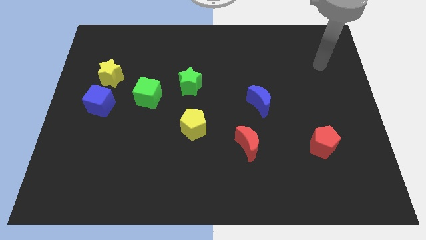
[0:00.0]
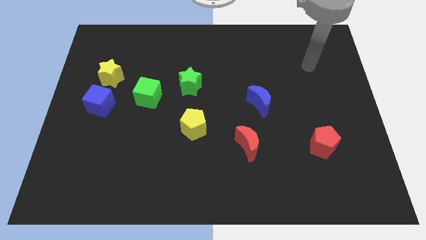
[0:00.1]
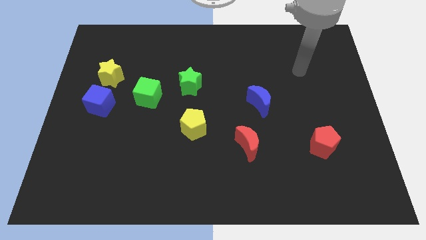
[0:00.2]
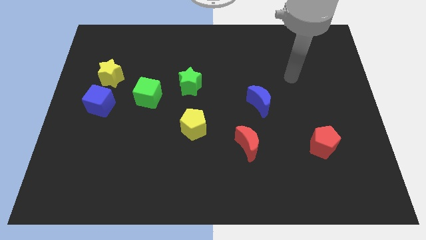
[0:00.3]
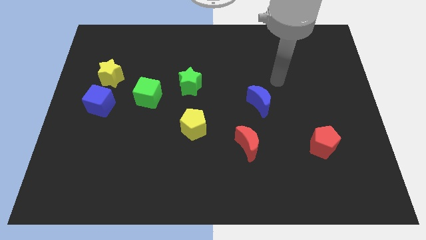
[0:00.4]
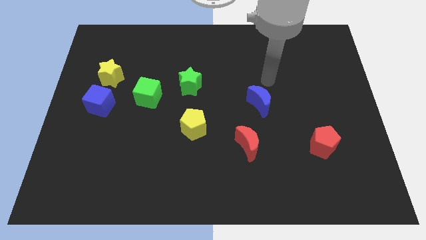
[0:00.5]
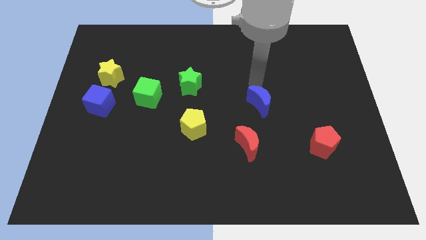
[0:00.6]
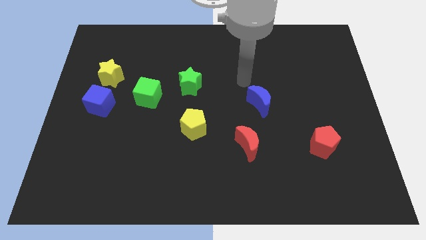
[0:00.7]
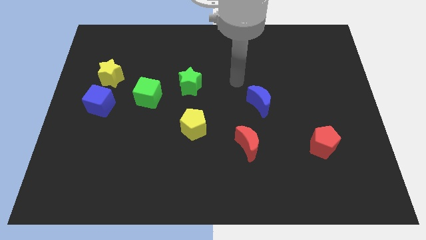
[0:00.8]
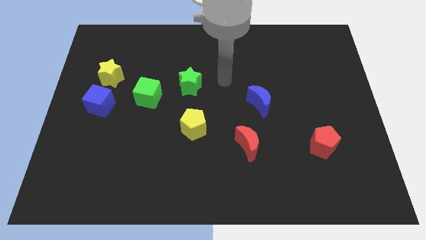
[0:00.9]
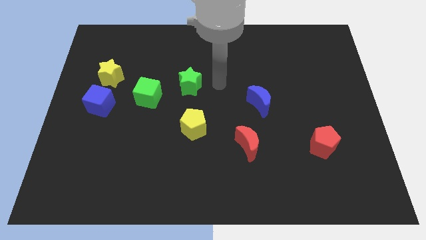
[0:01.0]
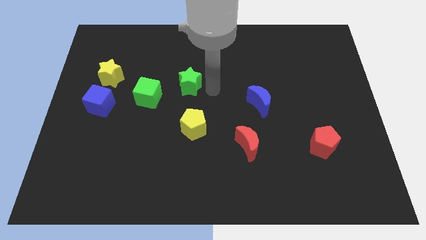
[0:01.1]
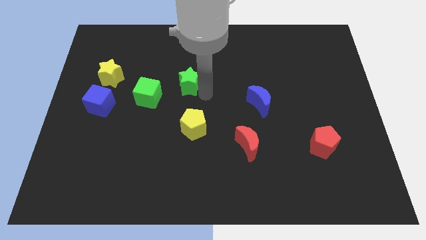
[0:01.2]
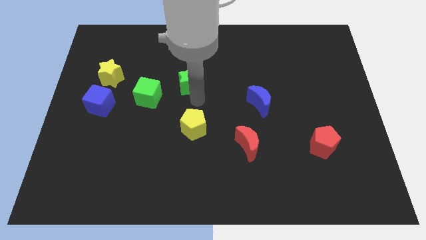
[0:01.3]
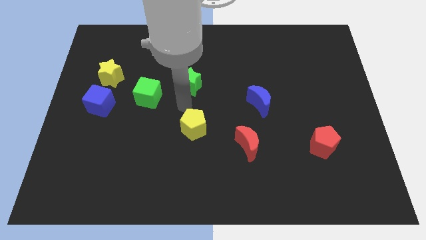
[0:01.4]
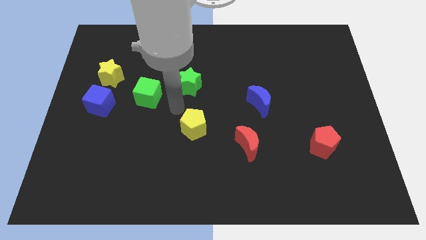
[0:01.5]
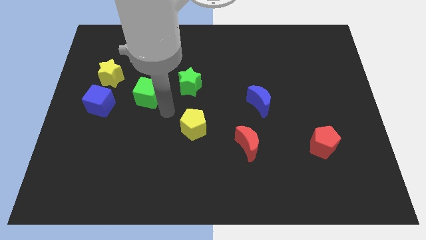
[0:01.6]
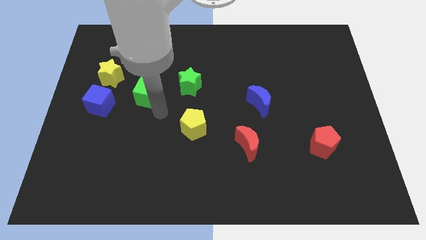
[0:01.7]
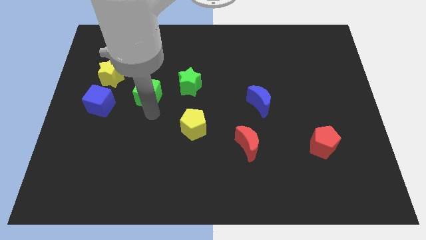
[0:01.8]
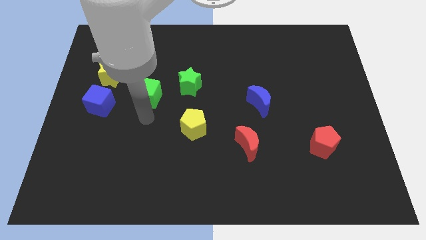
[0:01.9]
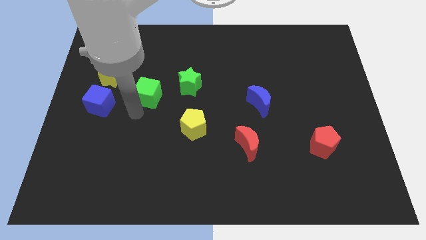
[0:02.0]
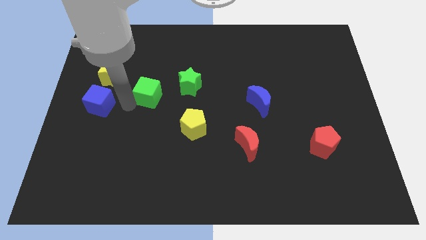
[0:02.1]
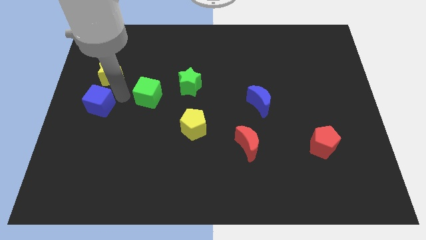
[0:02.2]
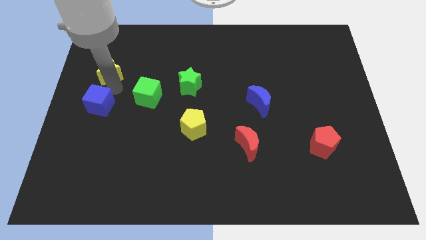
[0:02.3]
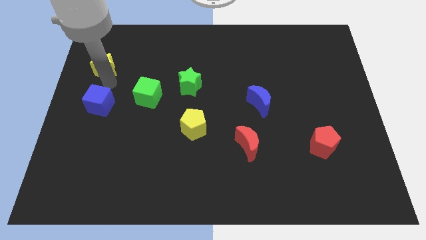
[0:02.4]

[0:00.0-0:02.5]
separate the blue cube from the yellow star

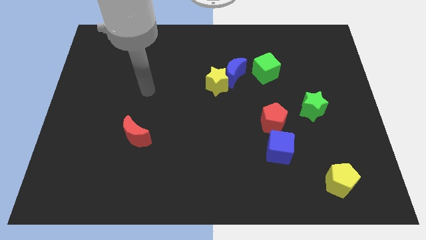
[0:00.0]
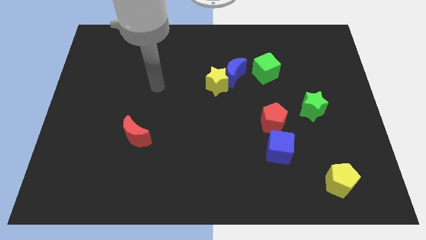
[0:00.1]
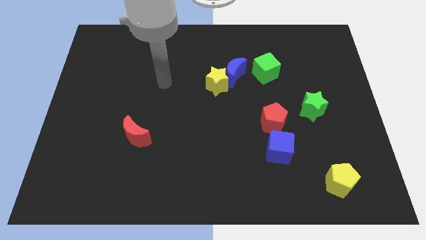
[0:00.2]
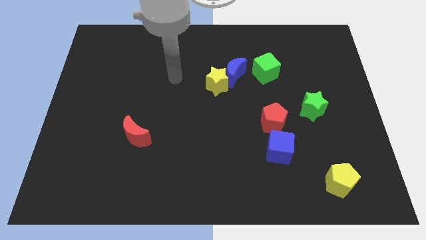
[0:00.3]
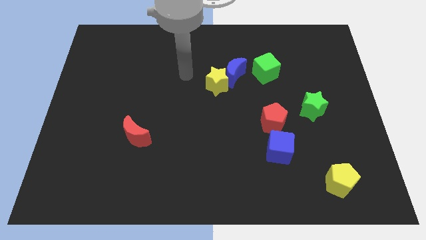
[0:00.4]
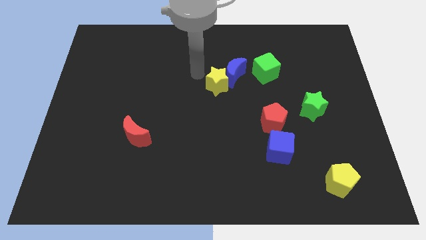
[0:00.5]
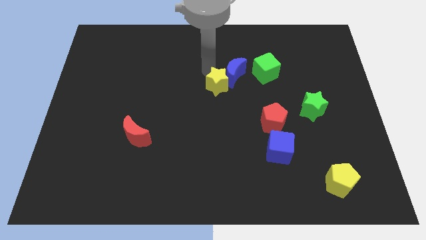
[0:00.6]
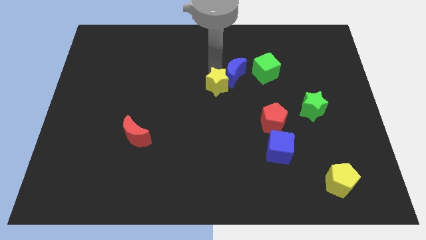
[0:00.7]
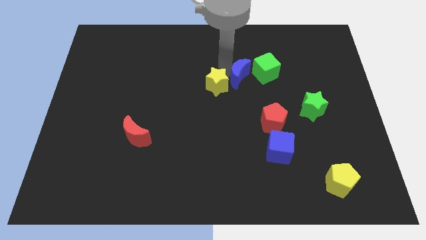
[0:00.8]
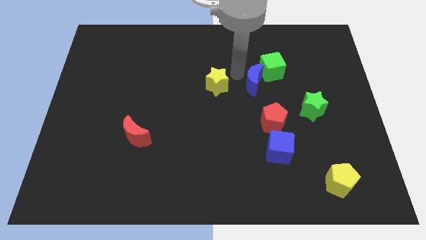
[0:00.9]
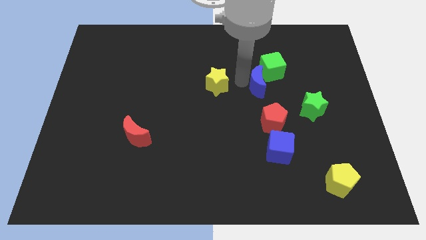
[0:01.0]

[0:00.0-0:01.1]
move the yellow star away from the blue moon

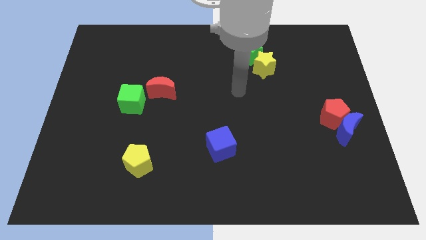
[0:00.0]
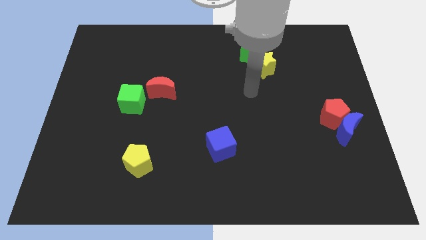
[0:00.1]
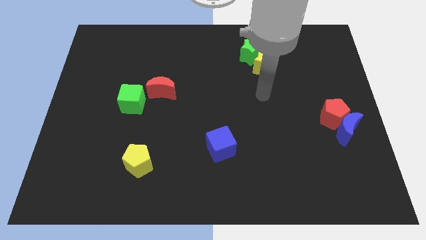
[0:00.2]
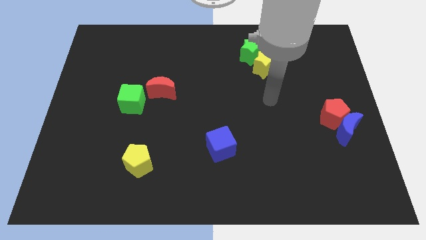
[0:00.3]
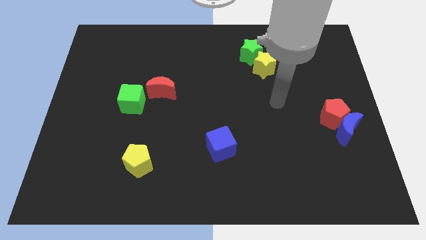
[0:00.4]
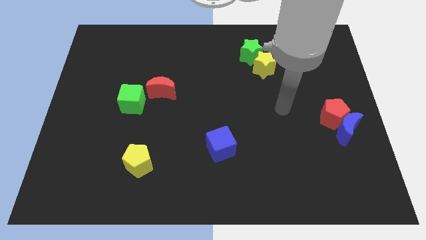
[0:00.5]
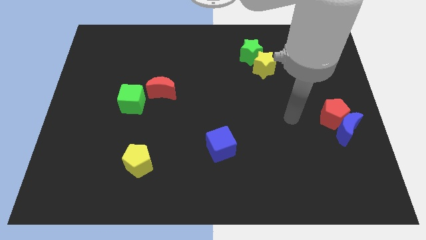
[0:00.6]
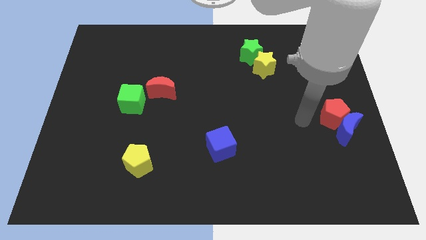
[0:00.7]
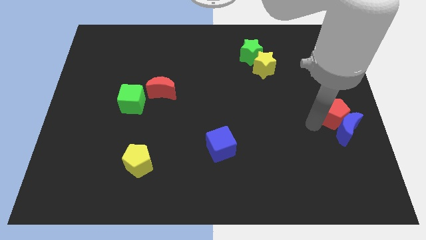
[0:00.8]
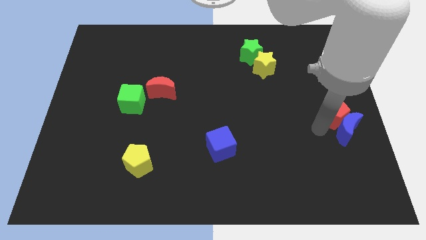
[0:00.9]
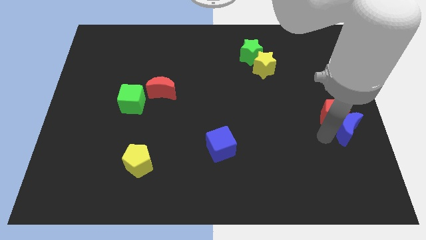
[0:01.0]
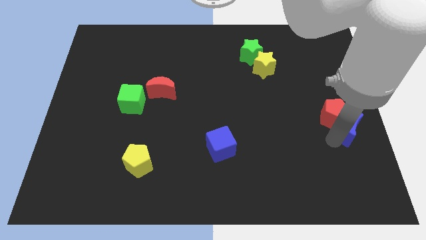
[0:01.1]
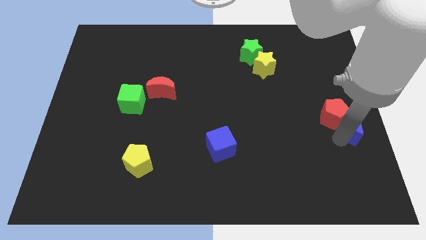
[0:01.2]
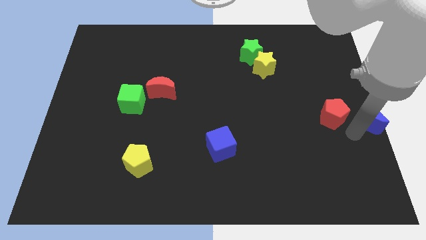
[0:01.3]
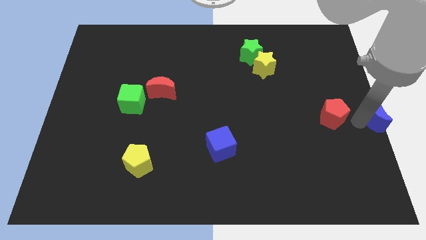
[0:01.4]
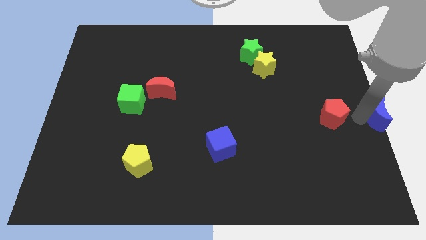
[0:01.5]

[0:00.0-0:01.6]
pull the red pentagon apart from the blue moon

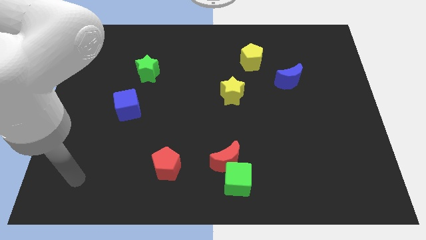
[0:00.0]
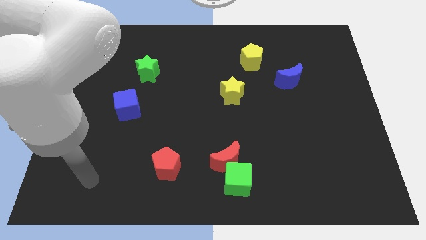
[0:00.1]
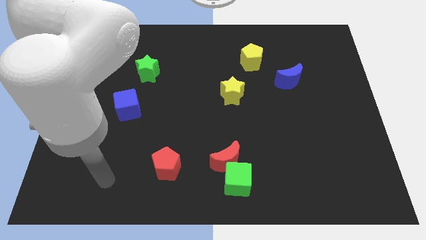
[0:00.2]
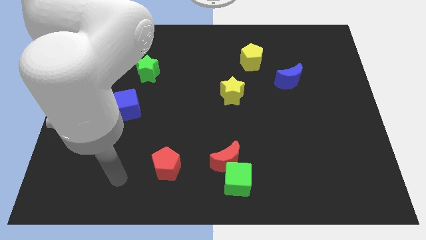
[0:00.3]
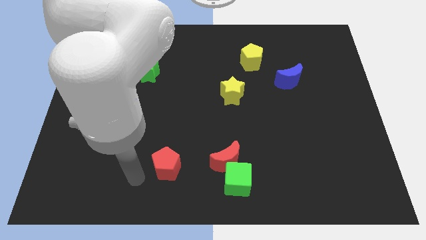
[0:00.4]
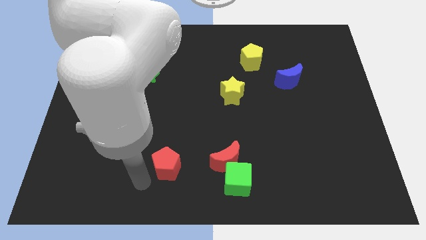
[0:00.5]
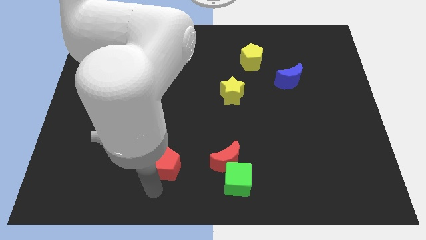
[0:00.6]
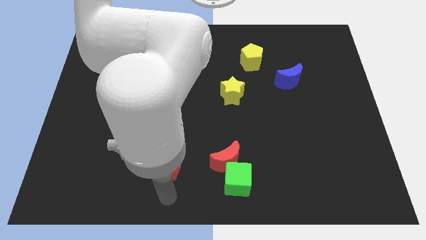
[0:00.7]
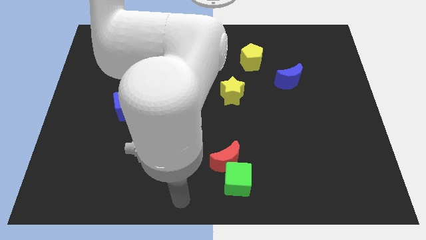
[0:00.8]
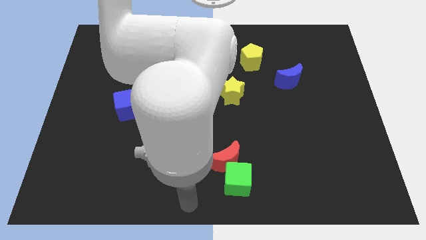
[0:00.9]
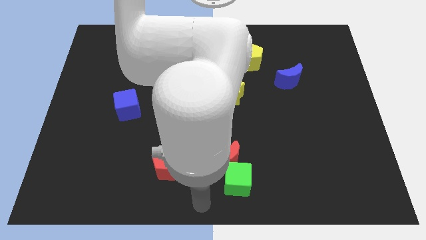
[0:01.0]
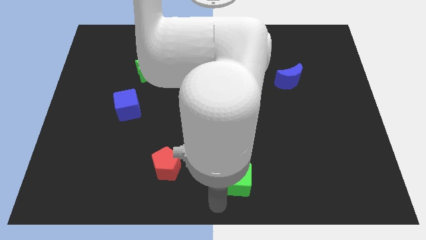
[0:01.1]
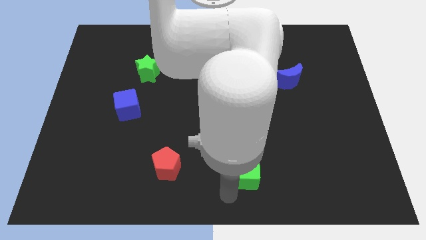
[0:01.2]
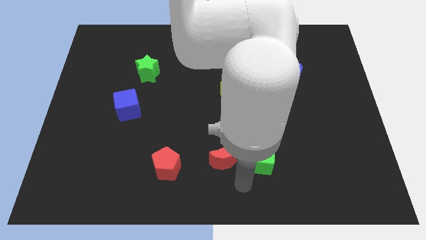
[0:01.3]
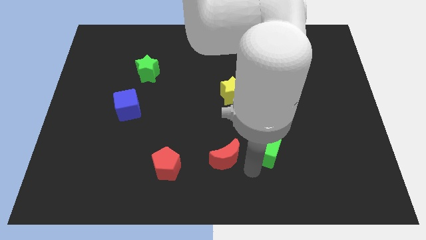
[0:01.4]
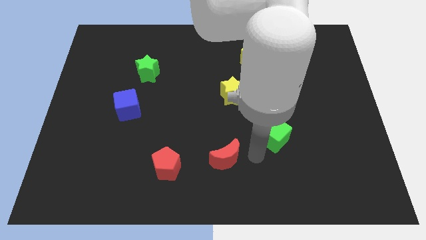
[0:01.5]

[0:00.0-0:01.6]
separate the red moon from the green cube

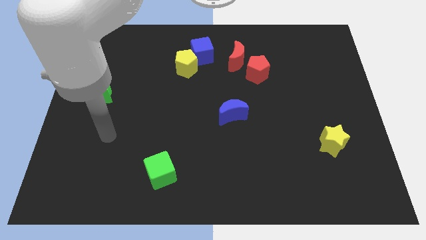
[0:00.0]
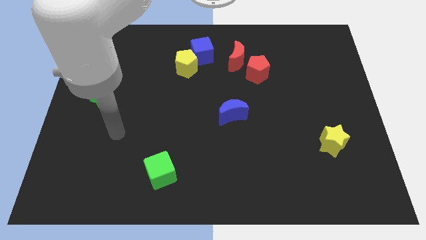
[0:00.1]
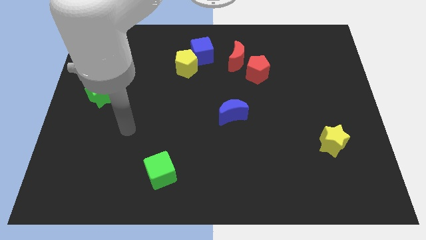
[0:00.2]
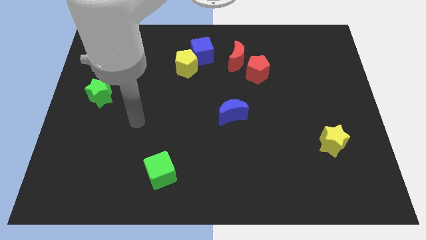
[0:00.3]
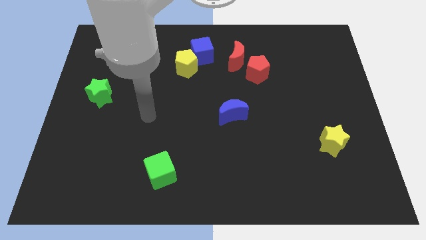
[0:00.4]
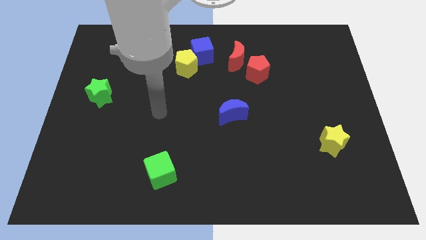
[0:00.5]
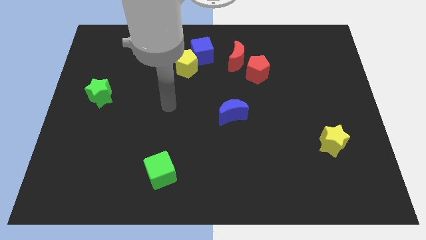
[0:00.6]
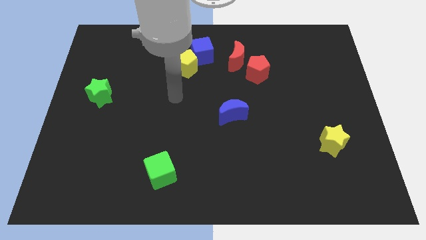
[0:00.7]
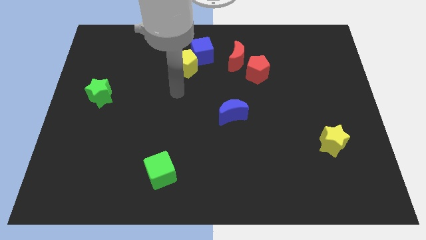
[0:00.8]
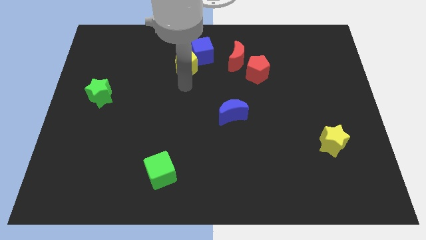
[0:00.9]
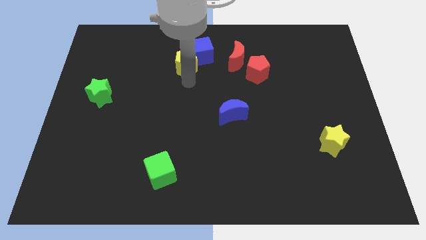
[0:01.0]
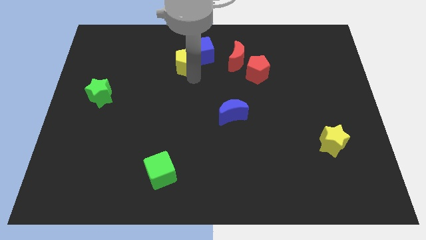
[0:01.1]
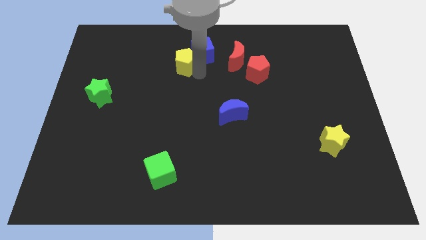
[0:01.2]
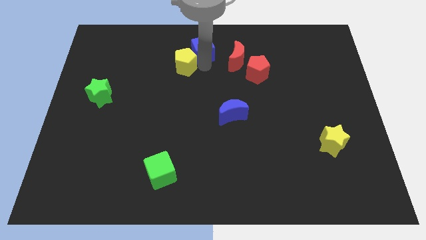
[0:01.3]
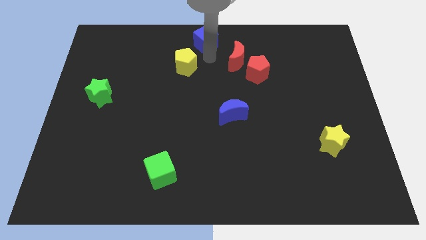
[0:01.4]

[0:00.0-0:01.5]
move the yellow pentagon away from the blue cube

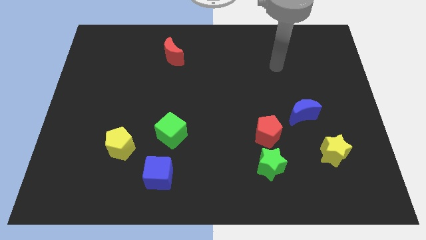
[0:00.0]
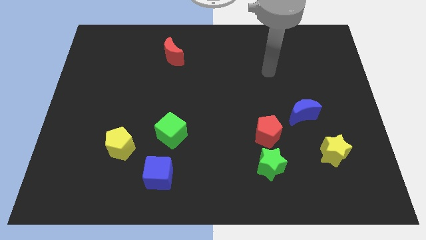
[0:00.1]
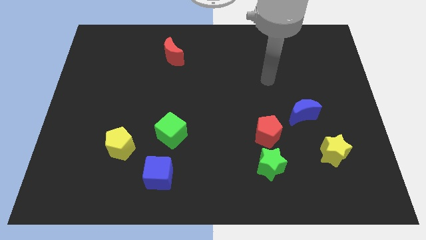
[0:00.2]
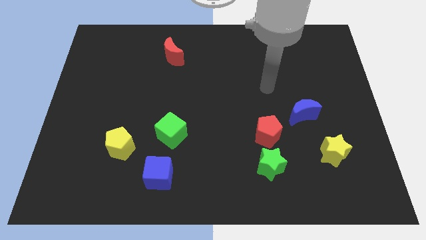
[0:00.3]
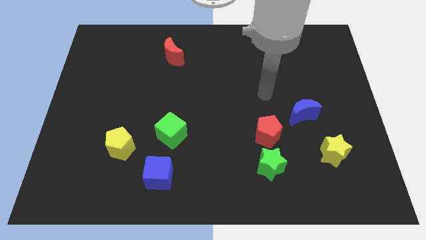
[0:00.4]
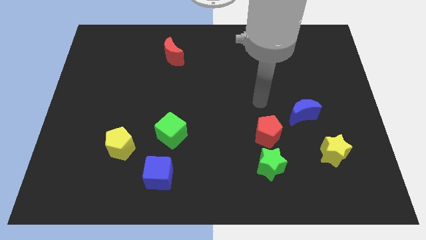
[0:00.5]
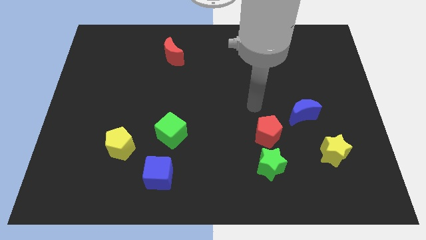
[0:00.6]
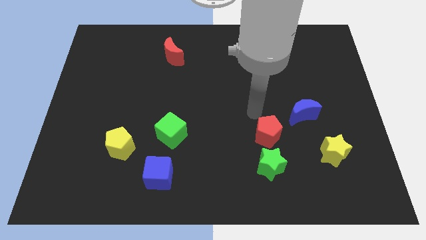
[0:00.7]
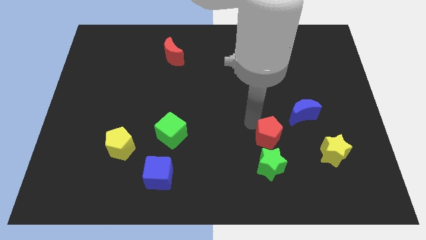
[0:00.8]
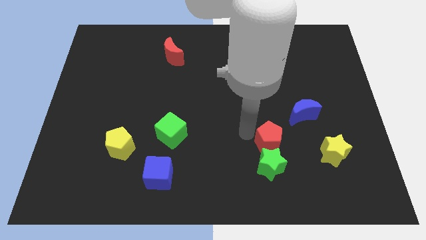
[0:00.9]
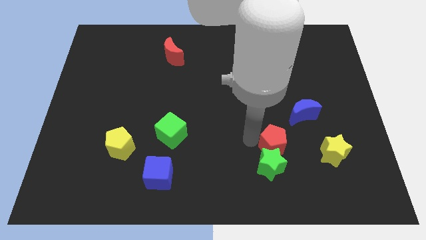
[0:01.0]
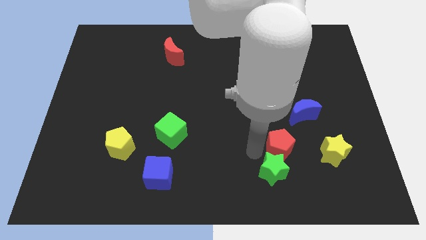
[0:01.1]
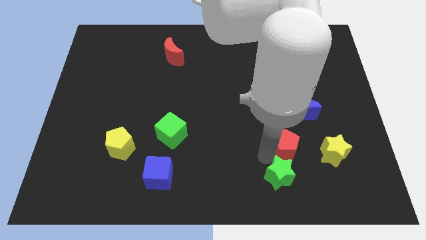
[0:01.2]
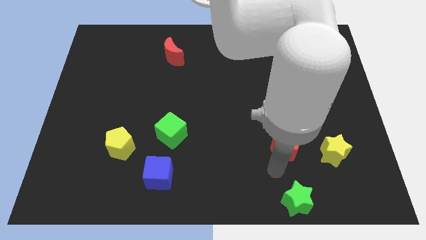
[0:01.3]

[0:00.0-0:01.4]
separate the red pentagon from the green star
